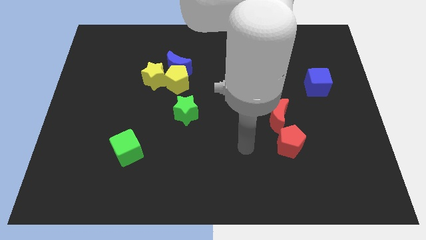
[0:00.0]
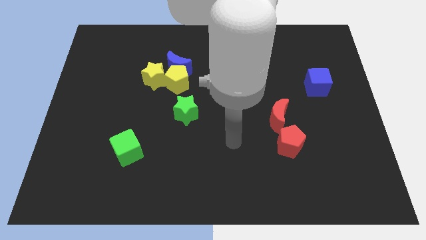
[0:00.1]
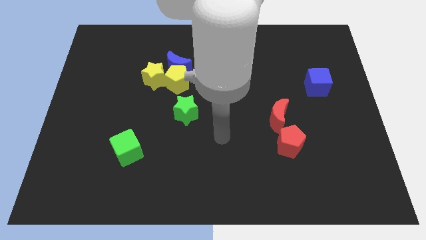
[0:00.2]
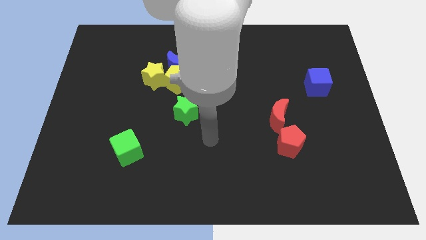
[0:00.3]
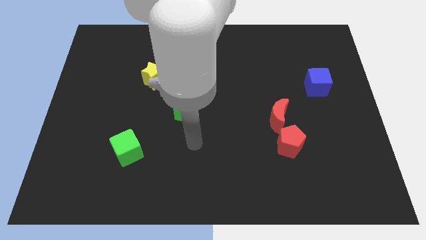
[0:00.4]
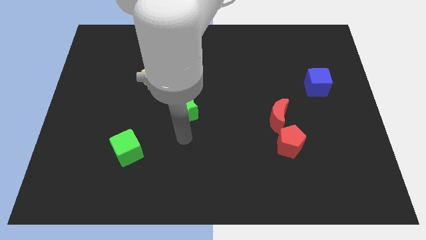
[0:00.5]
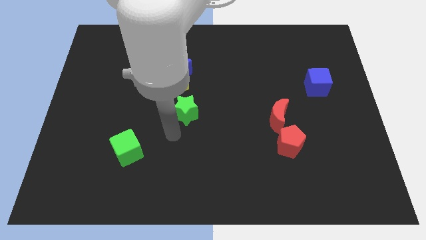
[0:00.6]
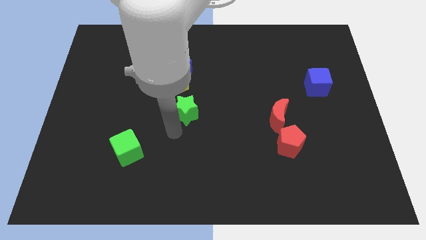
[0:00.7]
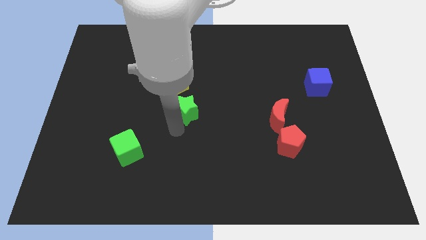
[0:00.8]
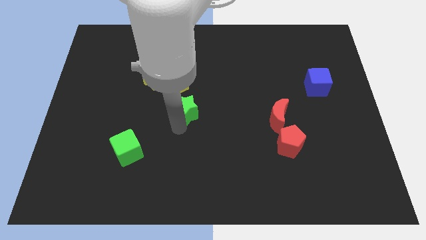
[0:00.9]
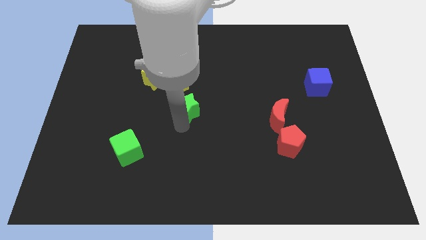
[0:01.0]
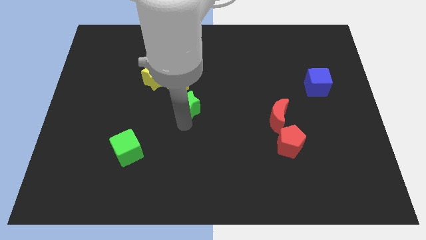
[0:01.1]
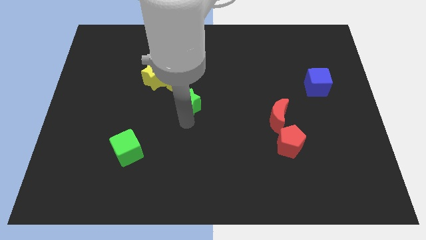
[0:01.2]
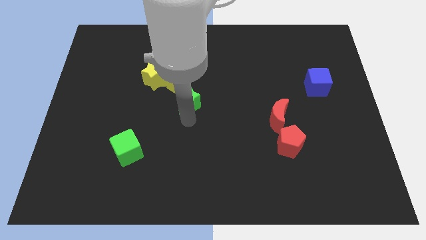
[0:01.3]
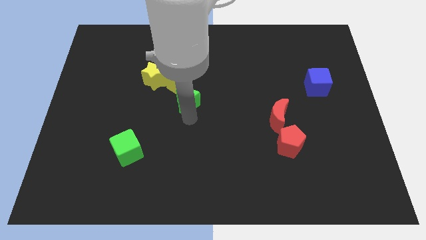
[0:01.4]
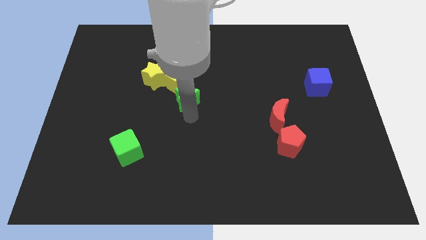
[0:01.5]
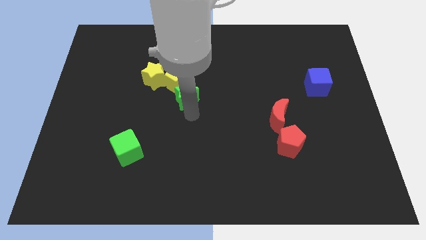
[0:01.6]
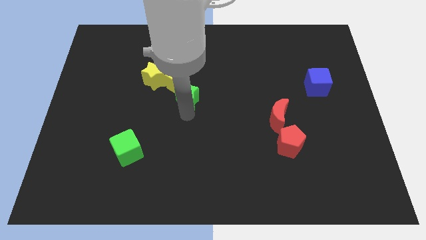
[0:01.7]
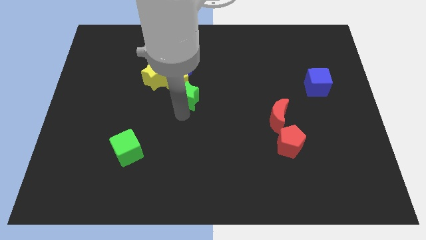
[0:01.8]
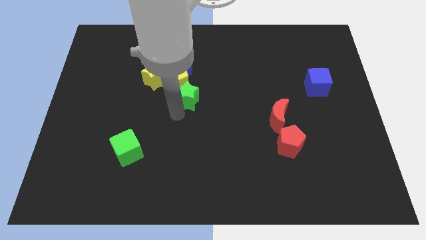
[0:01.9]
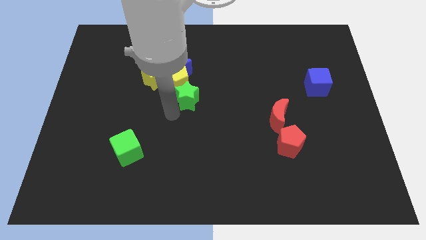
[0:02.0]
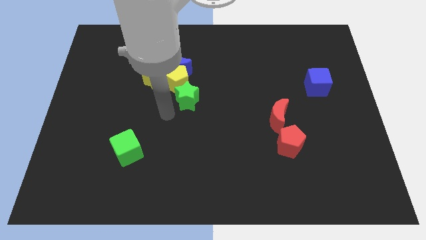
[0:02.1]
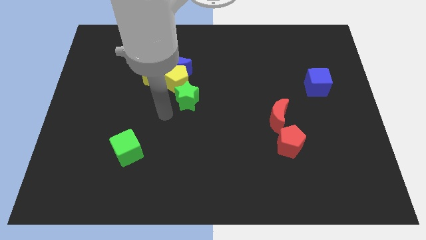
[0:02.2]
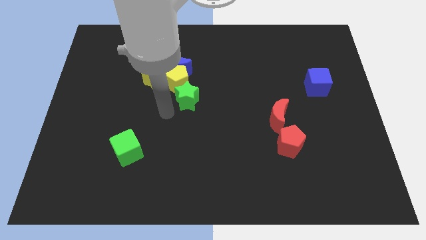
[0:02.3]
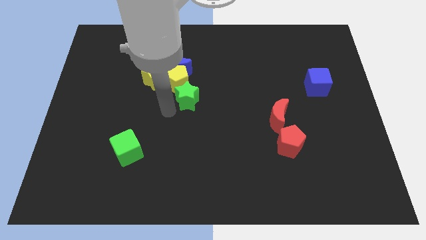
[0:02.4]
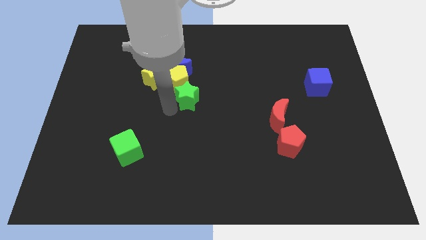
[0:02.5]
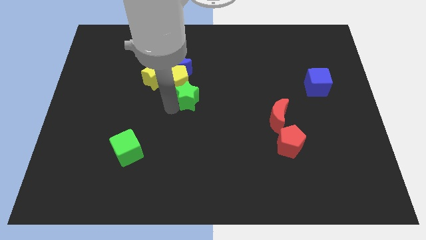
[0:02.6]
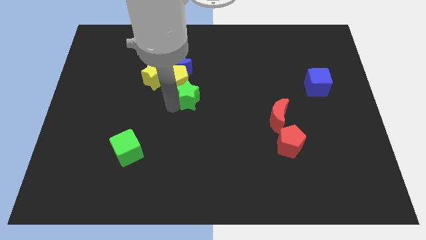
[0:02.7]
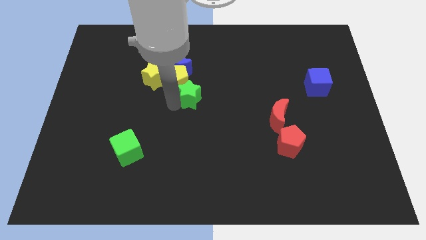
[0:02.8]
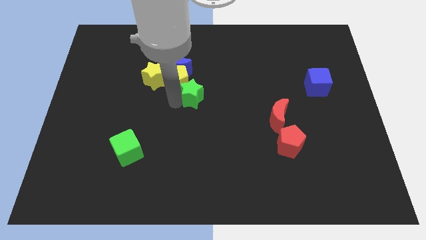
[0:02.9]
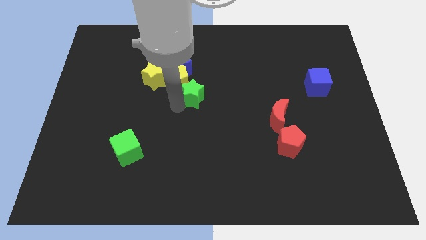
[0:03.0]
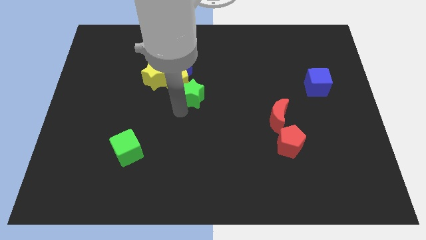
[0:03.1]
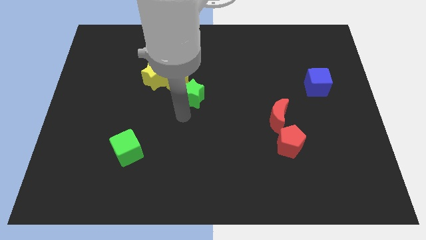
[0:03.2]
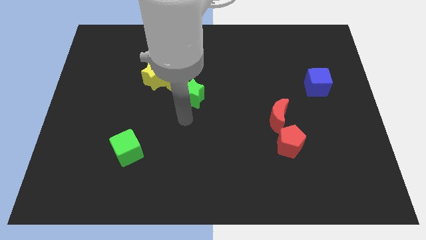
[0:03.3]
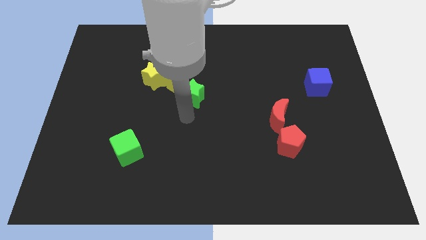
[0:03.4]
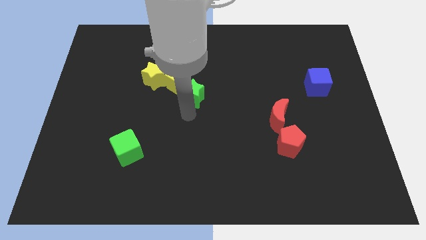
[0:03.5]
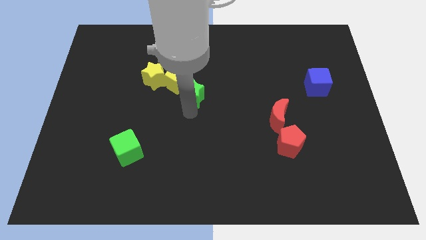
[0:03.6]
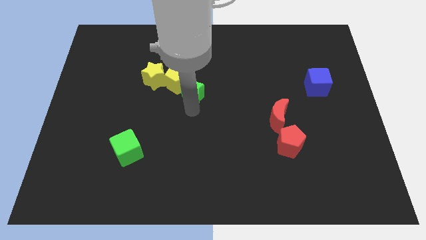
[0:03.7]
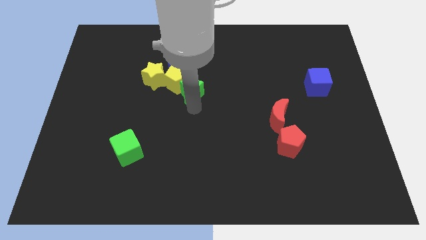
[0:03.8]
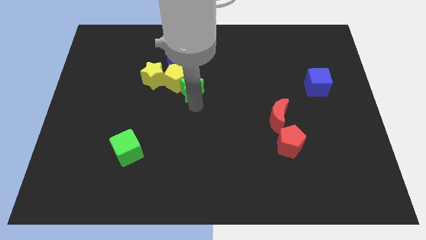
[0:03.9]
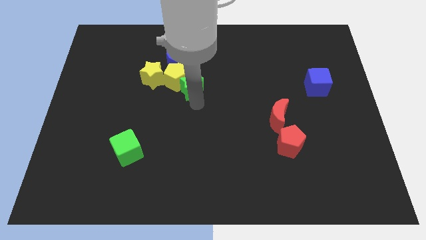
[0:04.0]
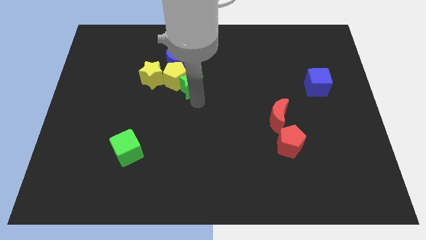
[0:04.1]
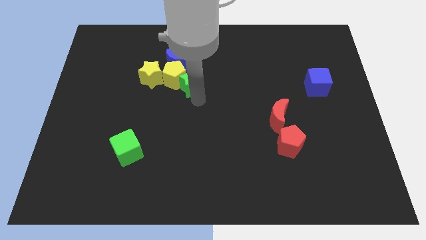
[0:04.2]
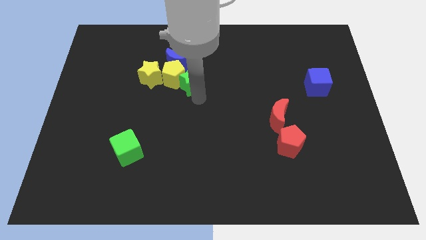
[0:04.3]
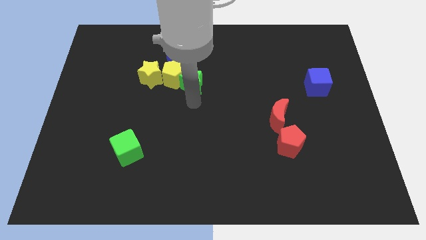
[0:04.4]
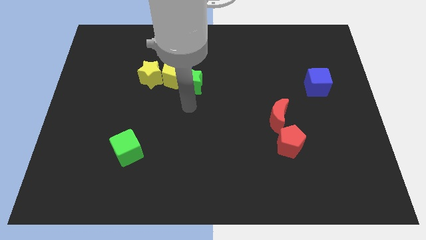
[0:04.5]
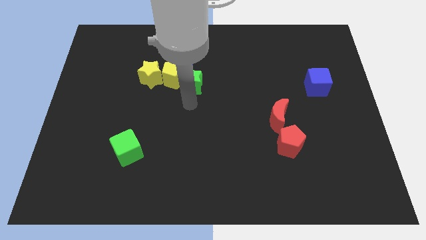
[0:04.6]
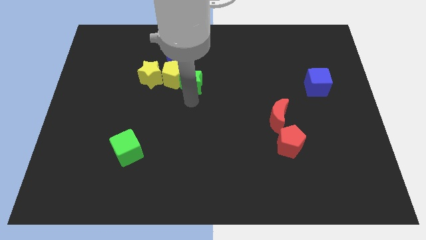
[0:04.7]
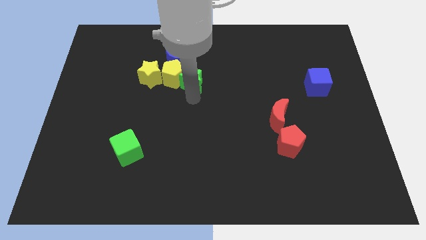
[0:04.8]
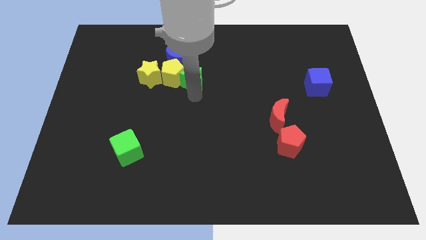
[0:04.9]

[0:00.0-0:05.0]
move the green star to the top right of the yellow pentagon

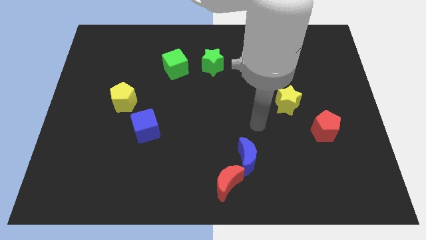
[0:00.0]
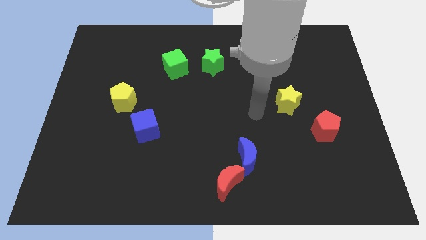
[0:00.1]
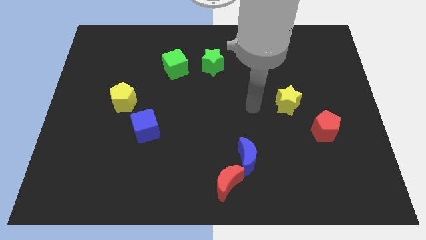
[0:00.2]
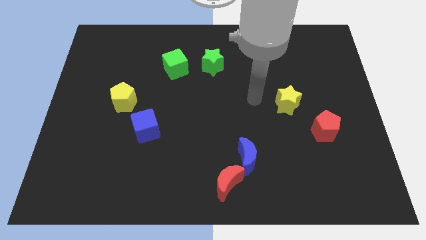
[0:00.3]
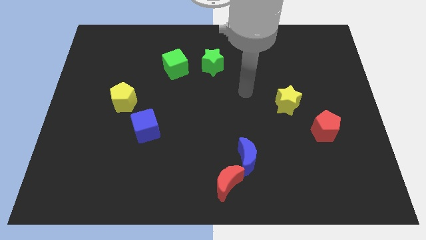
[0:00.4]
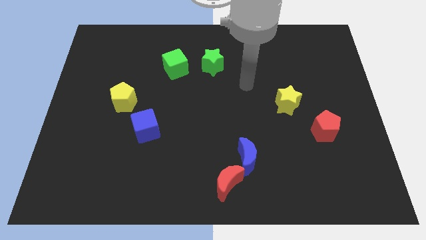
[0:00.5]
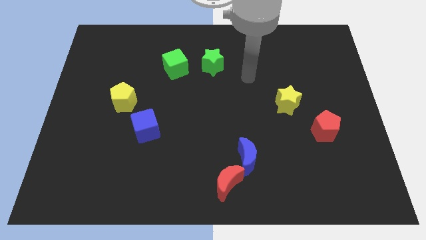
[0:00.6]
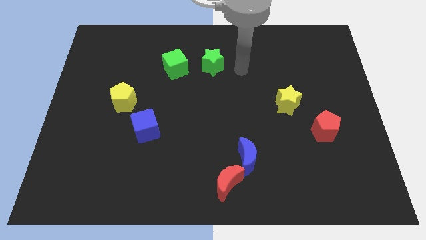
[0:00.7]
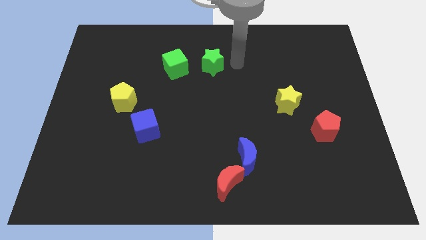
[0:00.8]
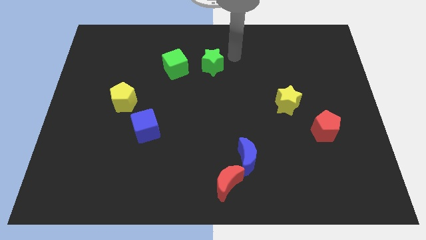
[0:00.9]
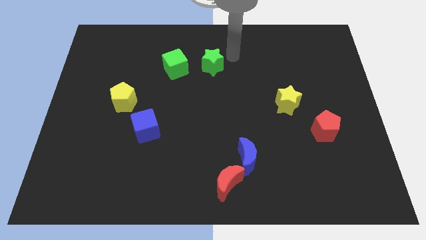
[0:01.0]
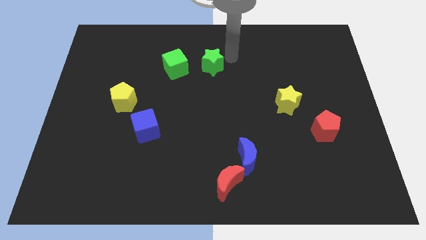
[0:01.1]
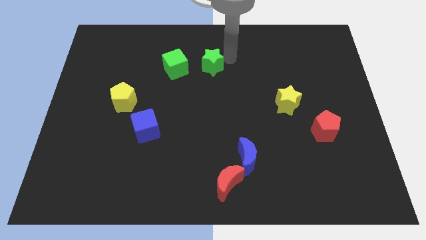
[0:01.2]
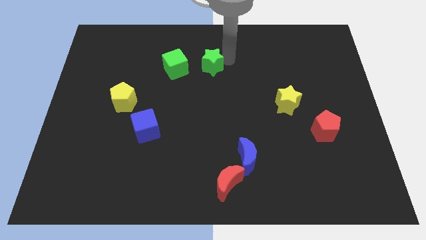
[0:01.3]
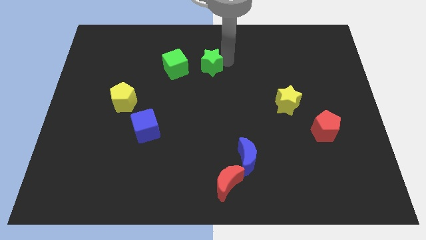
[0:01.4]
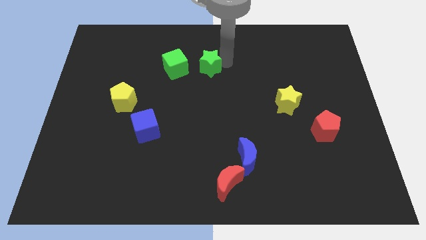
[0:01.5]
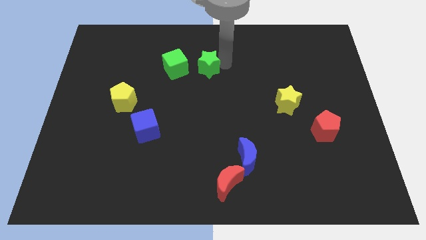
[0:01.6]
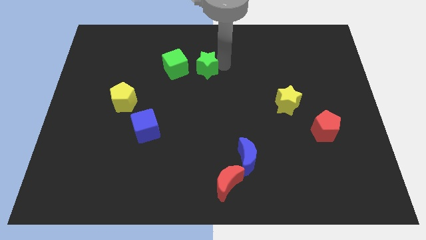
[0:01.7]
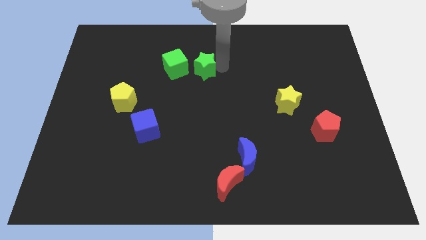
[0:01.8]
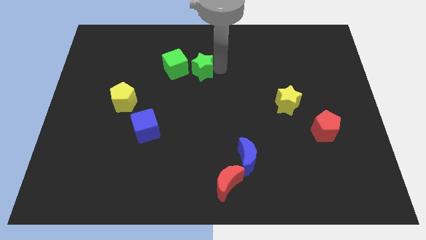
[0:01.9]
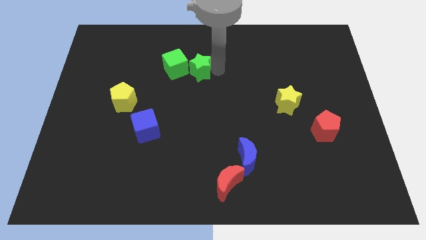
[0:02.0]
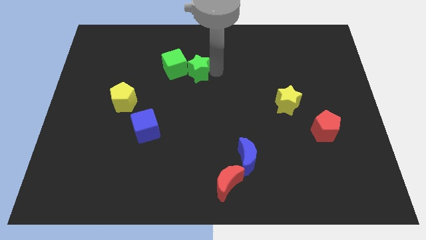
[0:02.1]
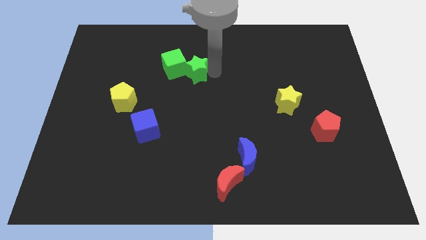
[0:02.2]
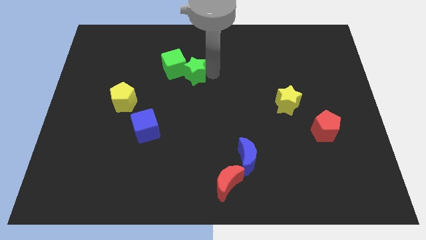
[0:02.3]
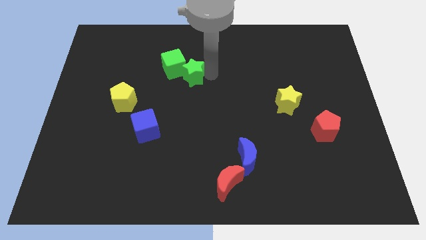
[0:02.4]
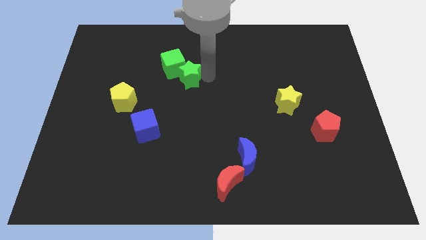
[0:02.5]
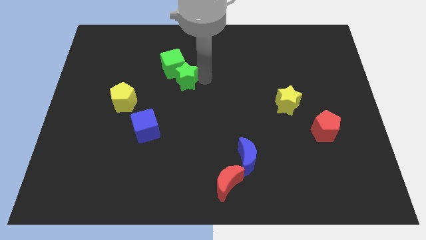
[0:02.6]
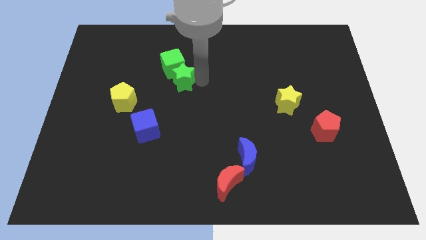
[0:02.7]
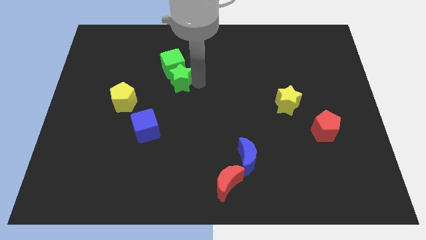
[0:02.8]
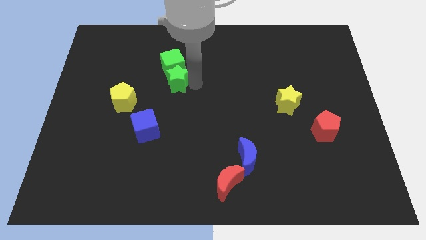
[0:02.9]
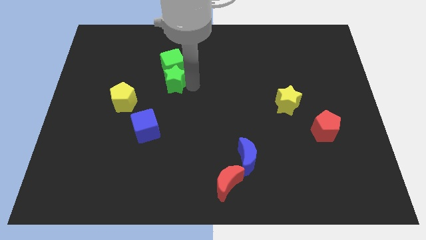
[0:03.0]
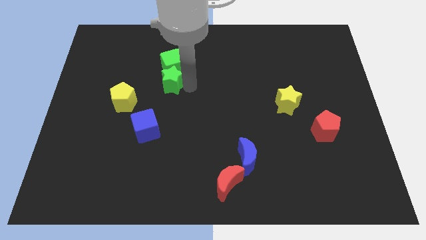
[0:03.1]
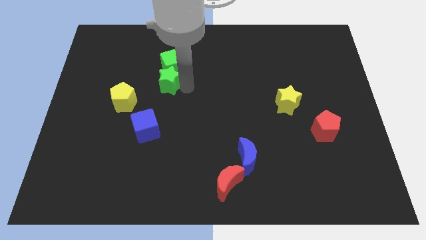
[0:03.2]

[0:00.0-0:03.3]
move the green star to the top right side of the yellow pentagon
